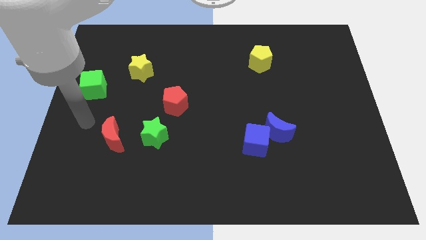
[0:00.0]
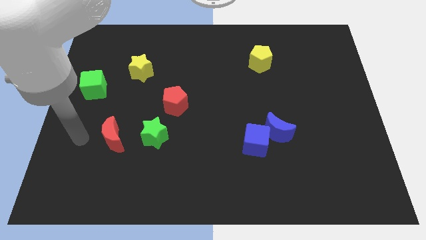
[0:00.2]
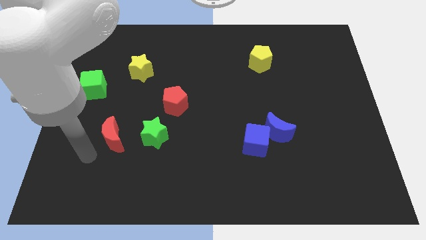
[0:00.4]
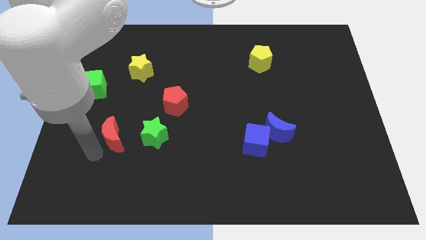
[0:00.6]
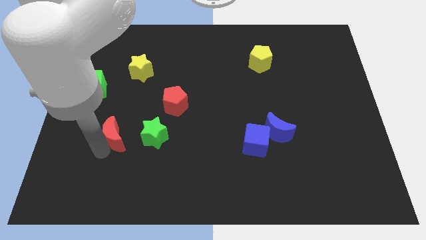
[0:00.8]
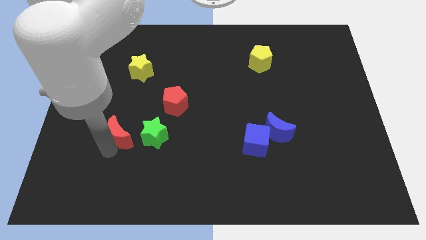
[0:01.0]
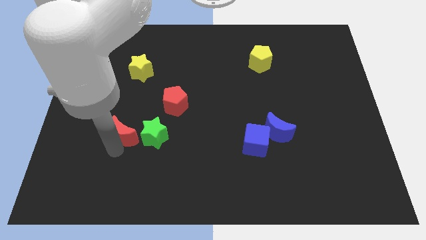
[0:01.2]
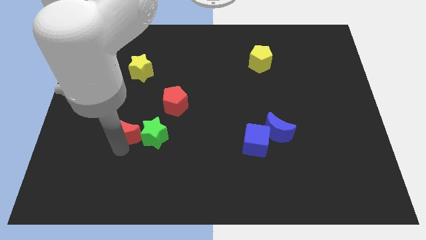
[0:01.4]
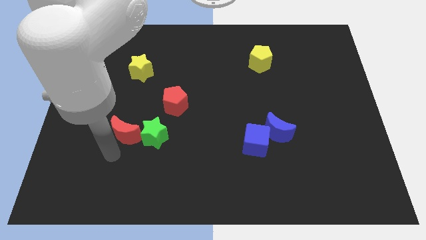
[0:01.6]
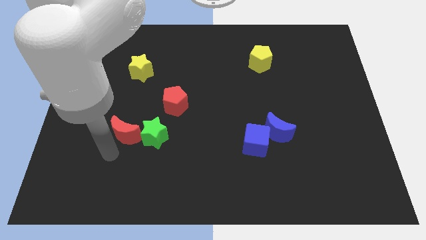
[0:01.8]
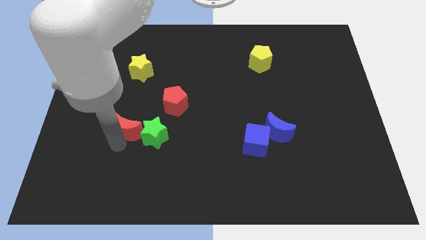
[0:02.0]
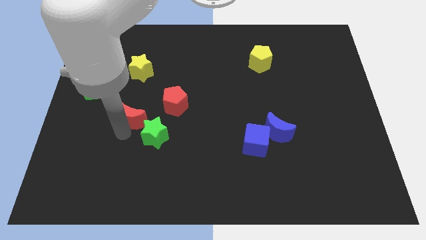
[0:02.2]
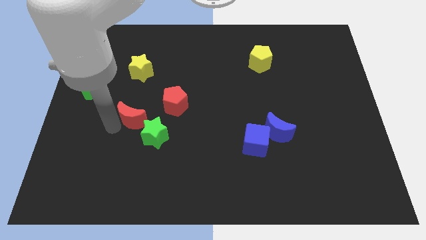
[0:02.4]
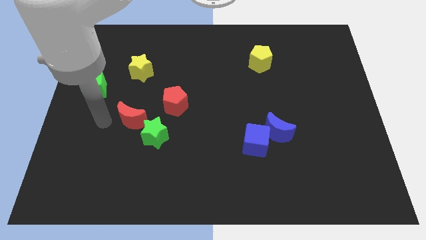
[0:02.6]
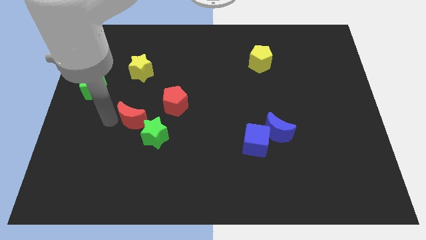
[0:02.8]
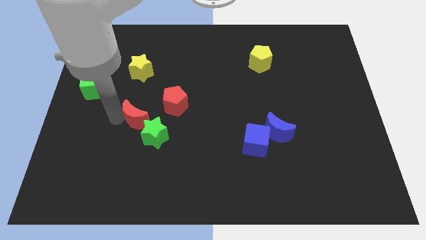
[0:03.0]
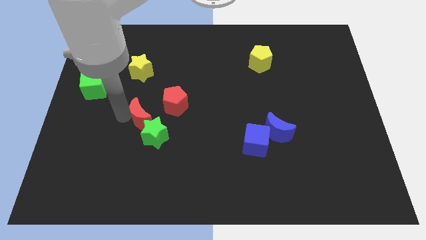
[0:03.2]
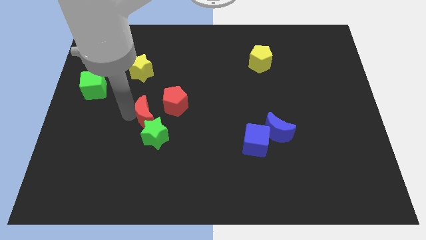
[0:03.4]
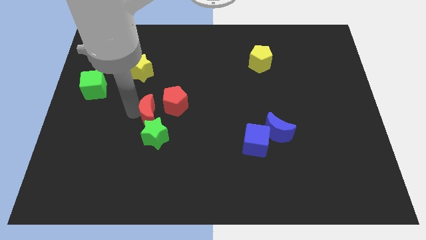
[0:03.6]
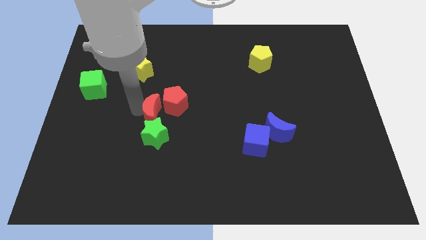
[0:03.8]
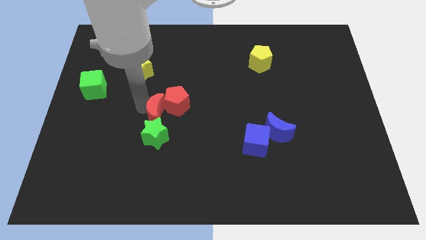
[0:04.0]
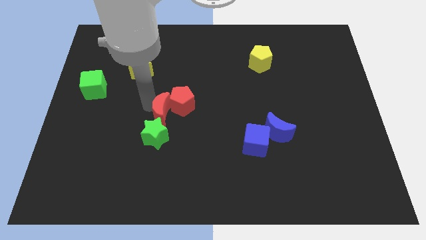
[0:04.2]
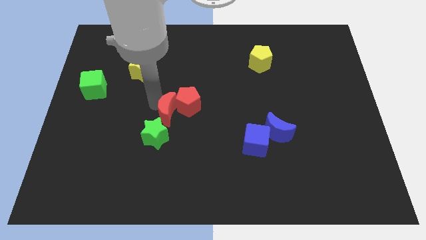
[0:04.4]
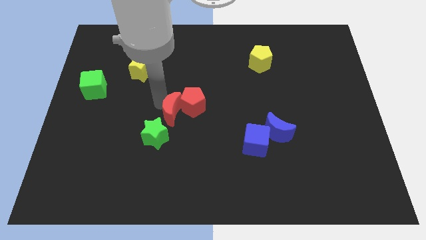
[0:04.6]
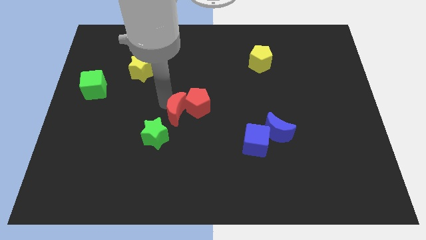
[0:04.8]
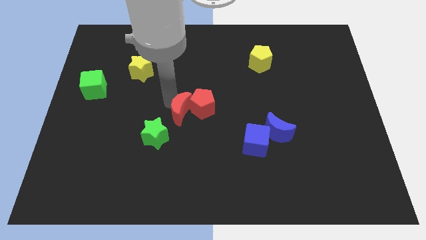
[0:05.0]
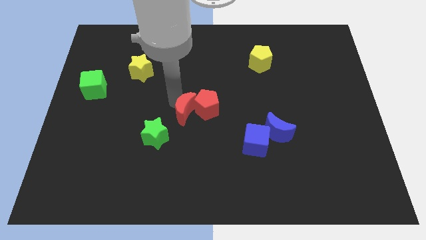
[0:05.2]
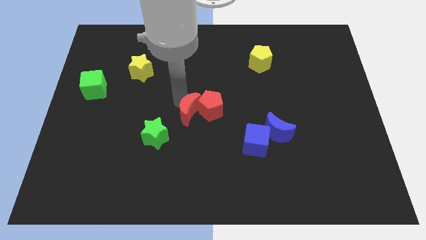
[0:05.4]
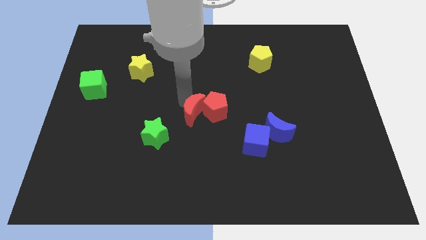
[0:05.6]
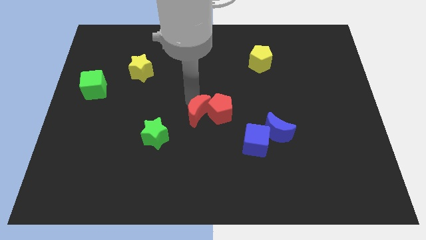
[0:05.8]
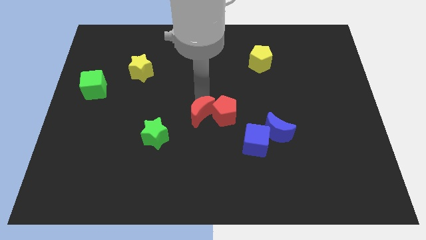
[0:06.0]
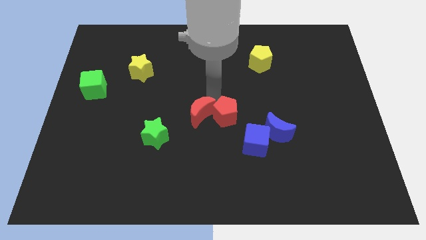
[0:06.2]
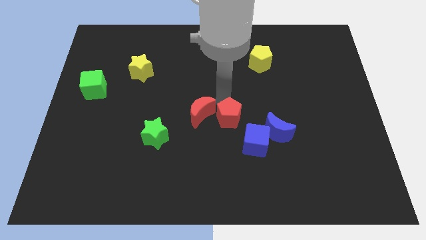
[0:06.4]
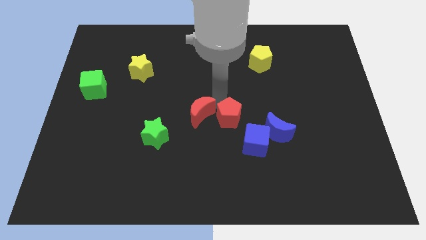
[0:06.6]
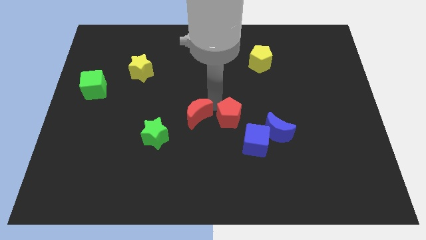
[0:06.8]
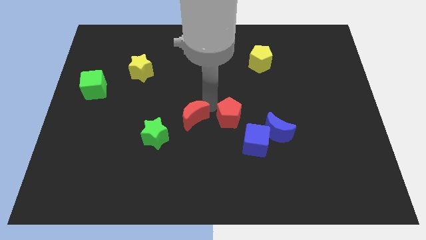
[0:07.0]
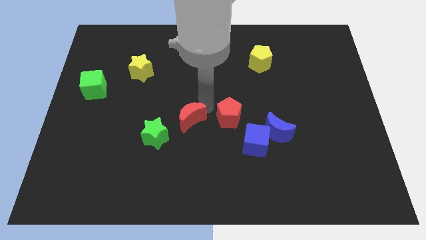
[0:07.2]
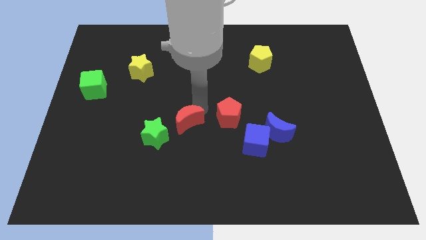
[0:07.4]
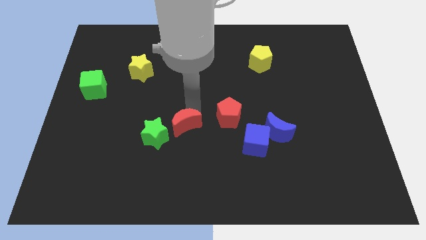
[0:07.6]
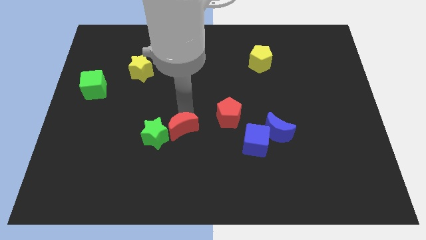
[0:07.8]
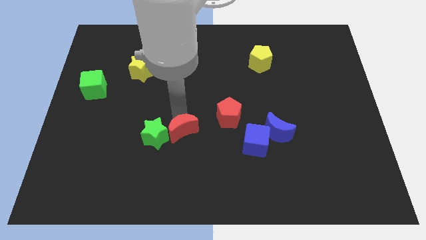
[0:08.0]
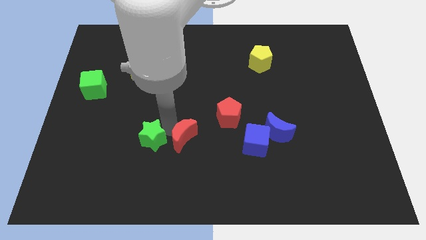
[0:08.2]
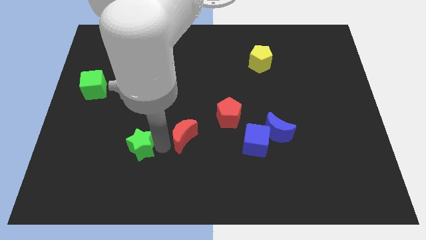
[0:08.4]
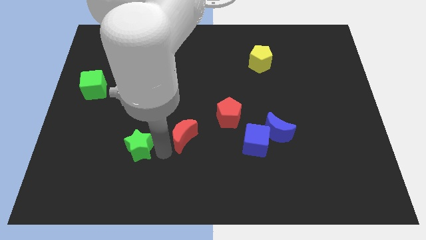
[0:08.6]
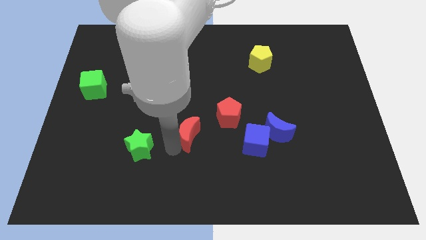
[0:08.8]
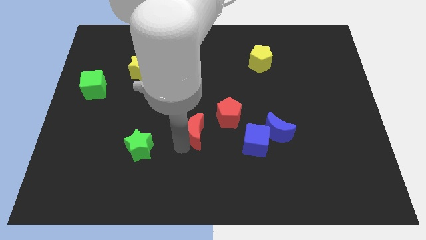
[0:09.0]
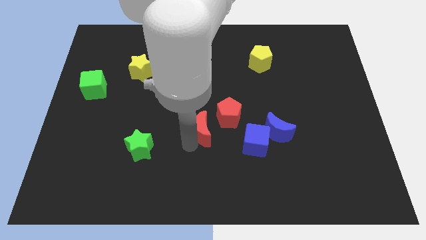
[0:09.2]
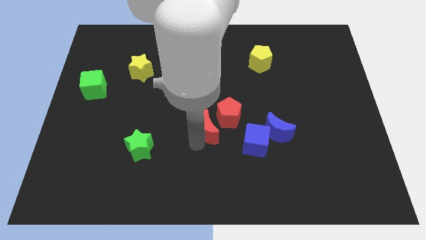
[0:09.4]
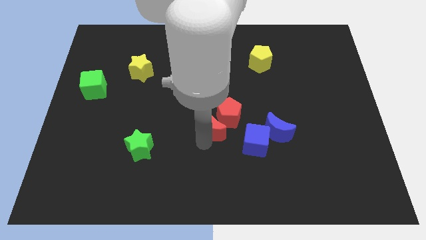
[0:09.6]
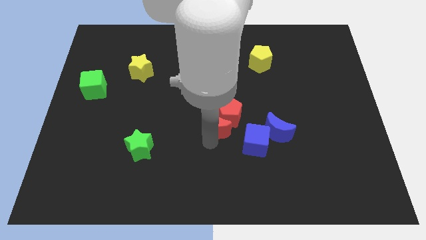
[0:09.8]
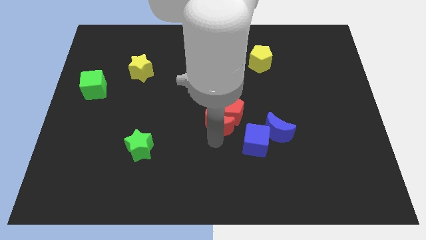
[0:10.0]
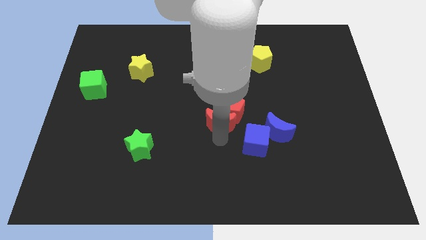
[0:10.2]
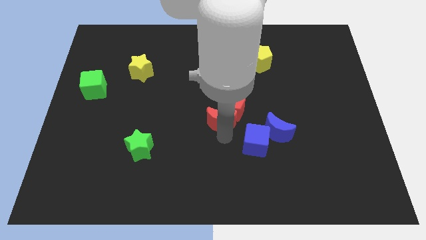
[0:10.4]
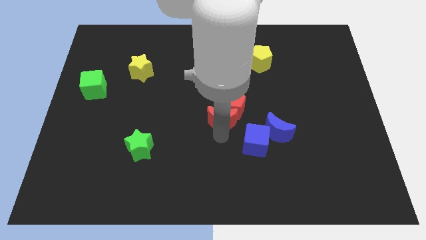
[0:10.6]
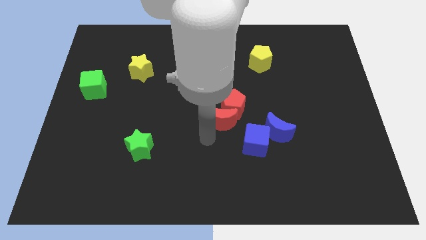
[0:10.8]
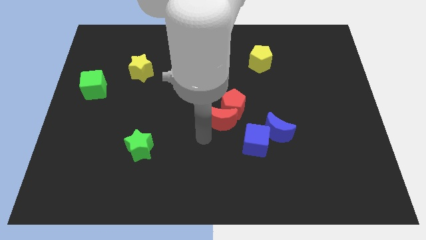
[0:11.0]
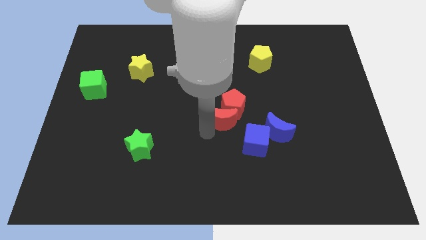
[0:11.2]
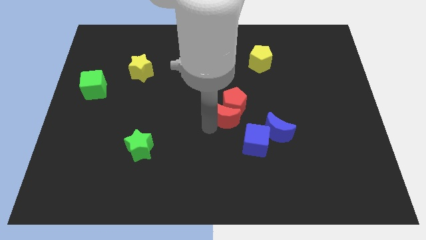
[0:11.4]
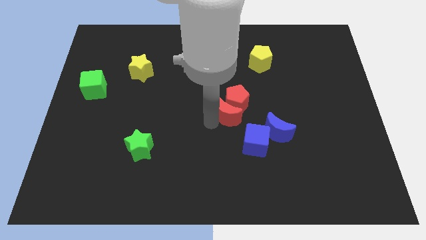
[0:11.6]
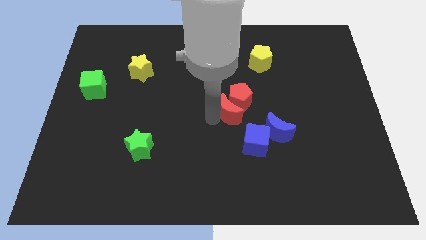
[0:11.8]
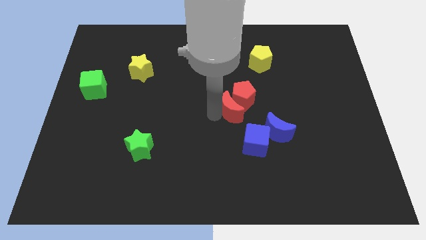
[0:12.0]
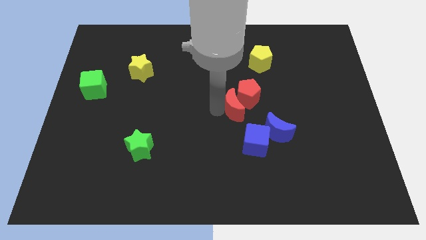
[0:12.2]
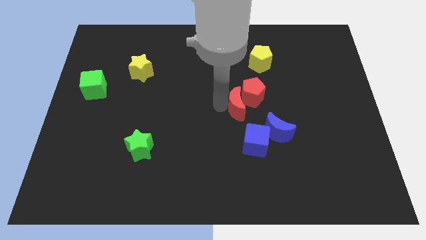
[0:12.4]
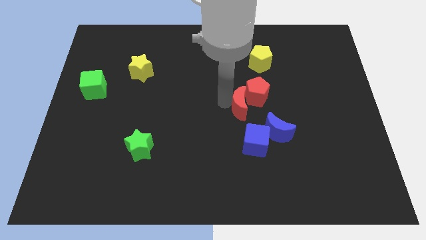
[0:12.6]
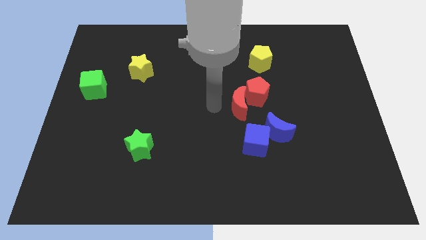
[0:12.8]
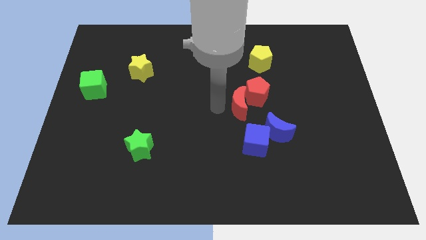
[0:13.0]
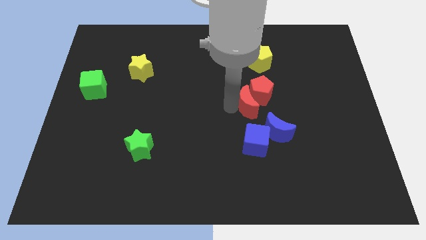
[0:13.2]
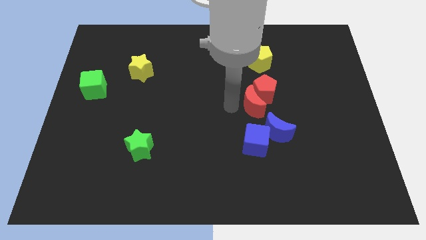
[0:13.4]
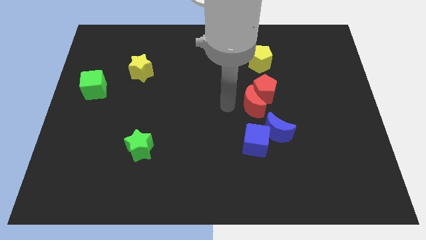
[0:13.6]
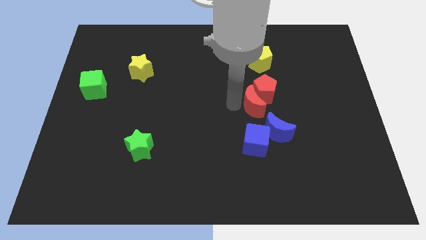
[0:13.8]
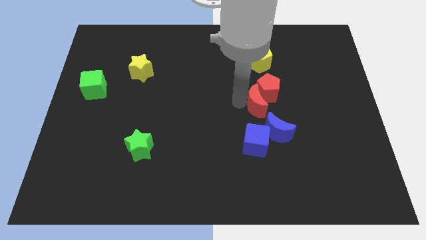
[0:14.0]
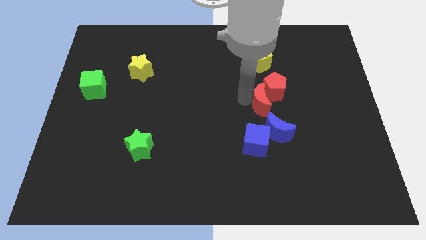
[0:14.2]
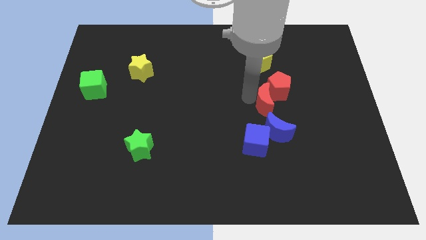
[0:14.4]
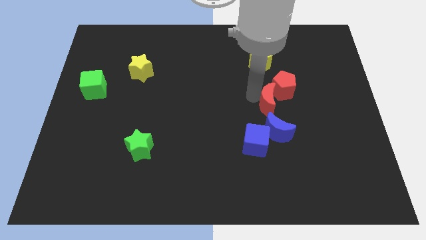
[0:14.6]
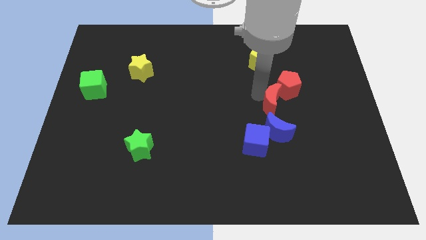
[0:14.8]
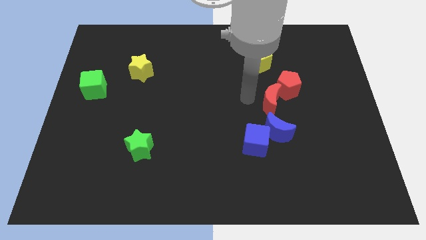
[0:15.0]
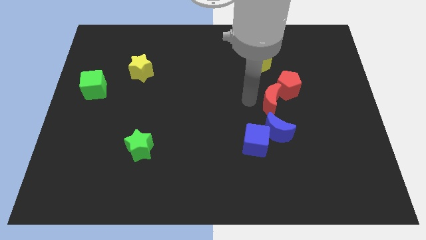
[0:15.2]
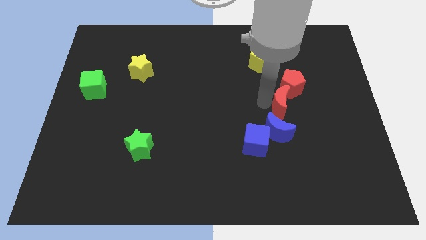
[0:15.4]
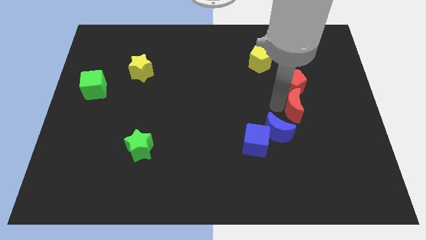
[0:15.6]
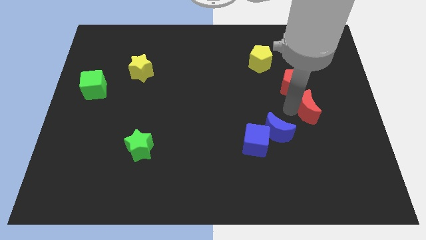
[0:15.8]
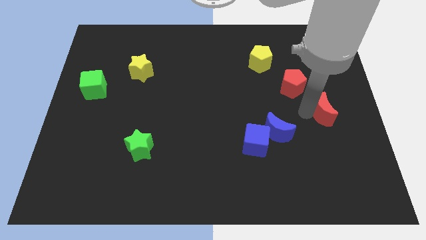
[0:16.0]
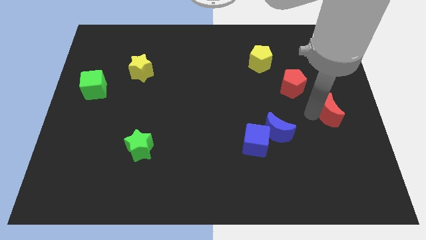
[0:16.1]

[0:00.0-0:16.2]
put the red moon to the right side
